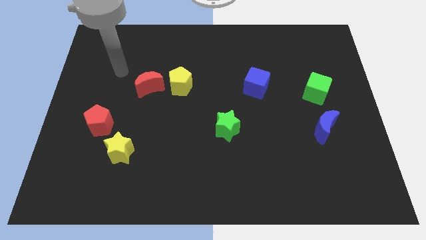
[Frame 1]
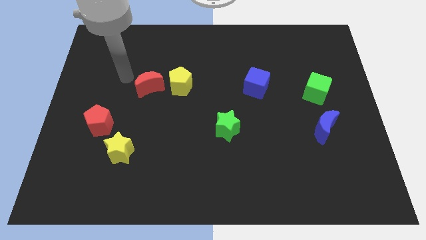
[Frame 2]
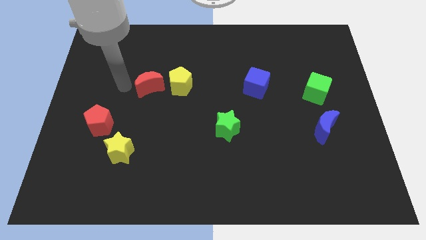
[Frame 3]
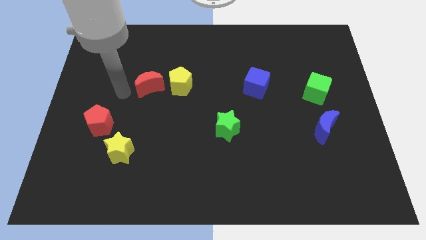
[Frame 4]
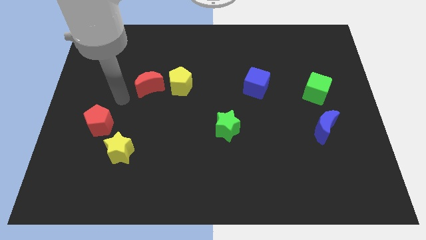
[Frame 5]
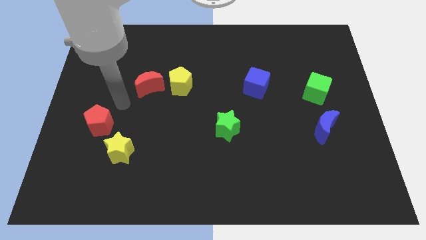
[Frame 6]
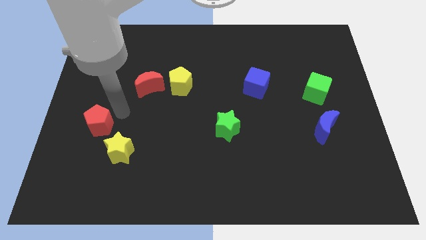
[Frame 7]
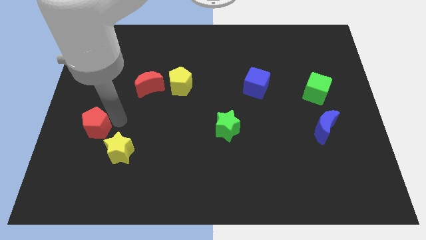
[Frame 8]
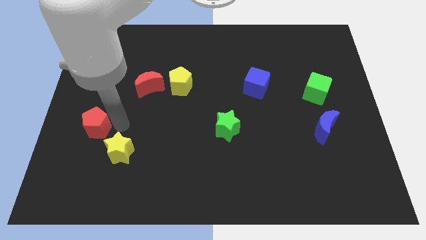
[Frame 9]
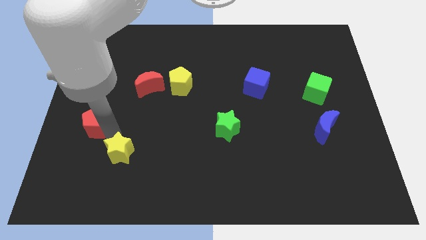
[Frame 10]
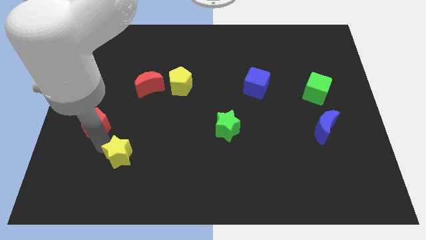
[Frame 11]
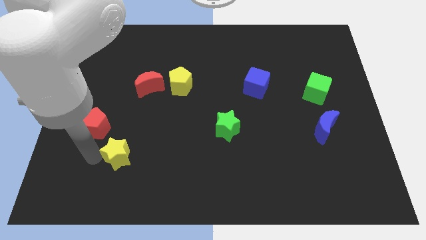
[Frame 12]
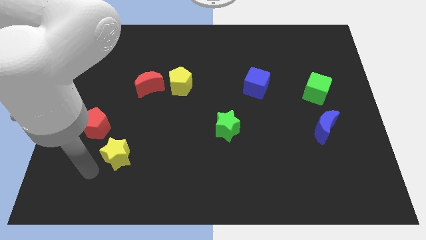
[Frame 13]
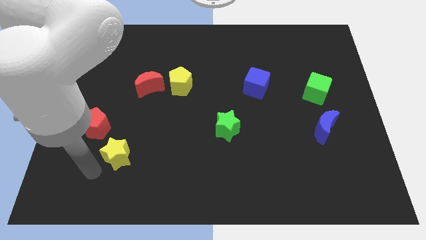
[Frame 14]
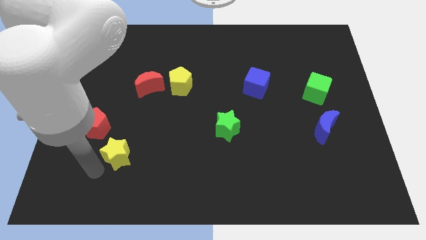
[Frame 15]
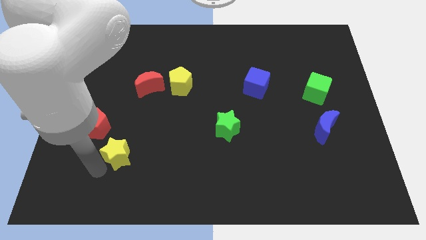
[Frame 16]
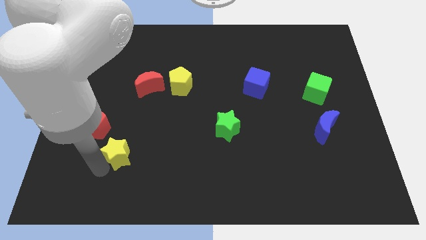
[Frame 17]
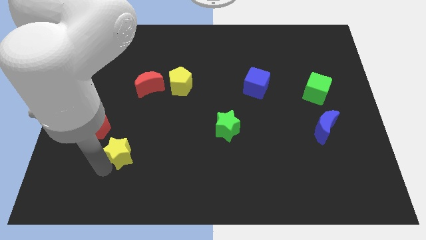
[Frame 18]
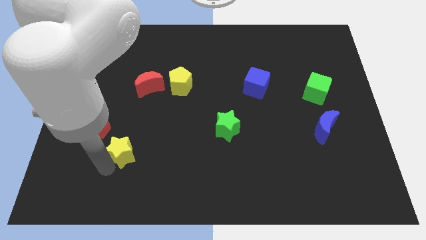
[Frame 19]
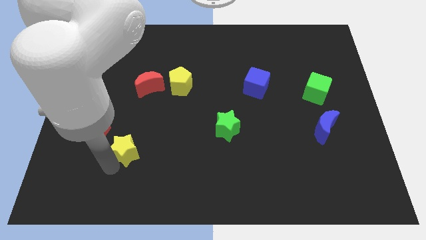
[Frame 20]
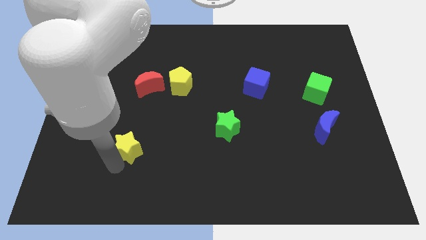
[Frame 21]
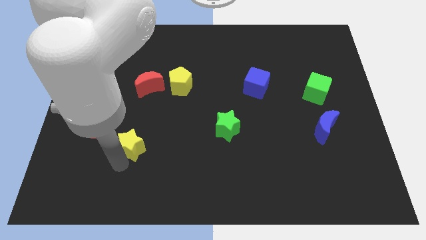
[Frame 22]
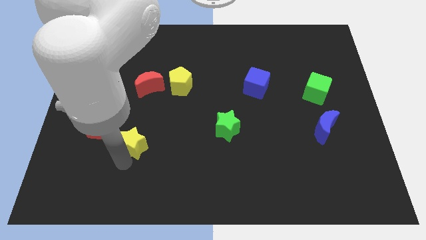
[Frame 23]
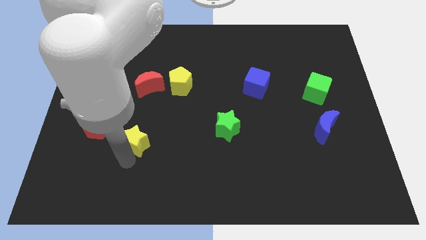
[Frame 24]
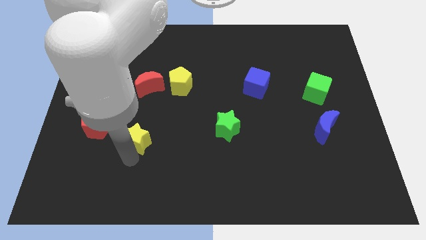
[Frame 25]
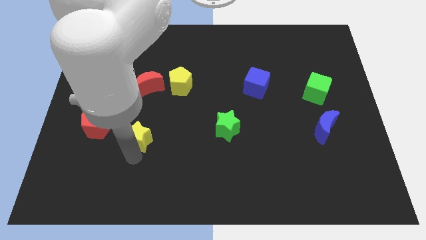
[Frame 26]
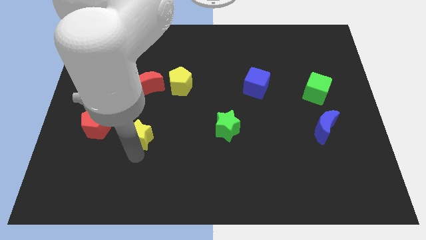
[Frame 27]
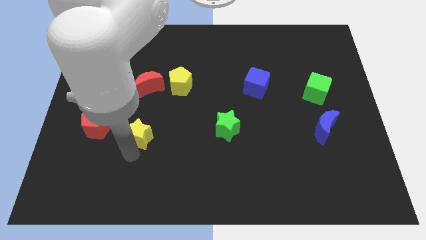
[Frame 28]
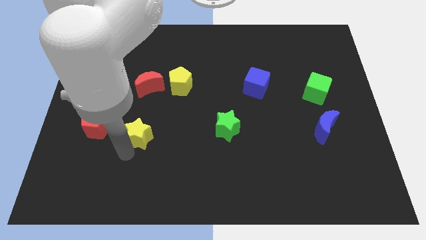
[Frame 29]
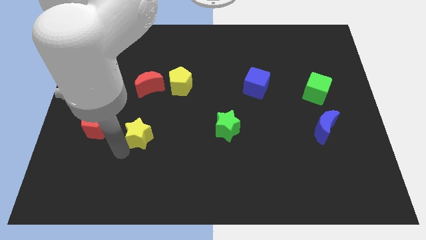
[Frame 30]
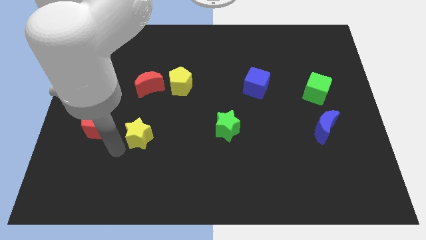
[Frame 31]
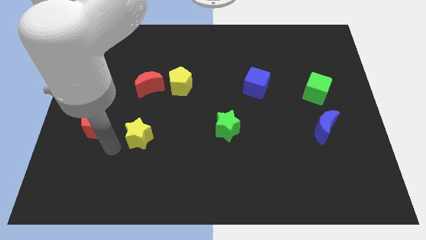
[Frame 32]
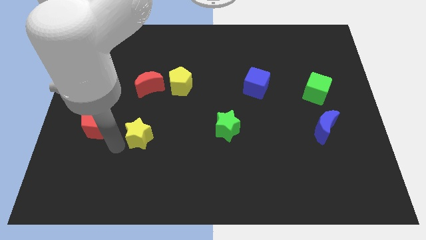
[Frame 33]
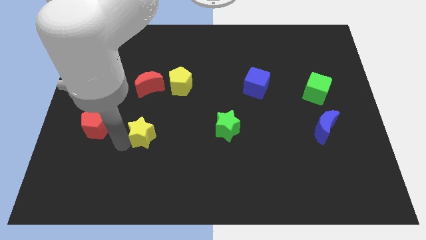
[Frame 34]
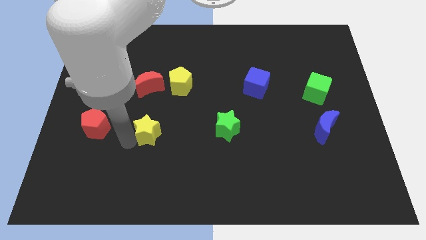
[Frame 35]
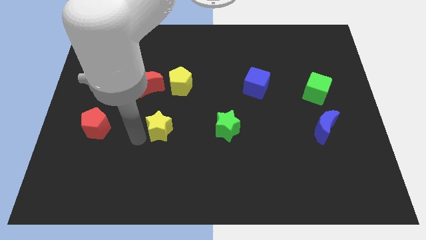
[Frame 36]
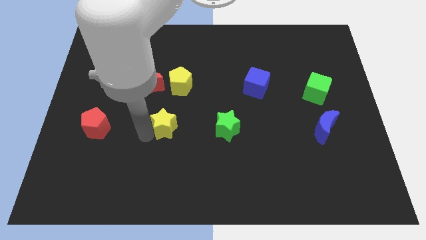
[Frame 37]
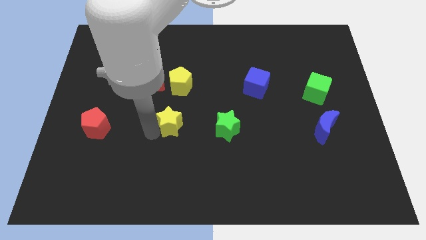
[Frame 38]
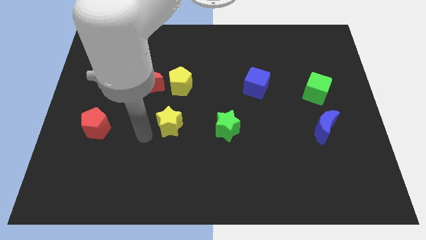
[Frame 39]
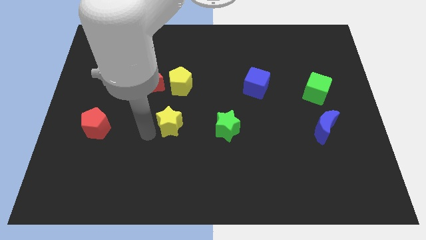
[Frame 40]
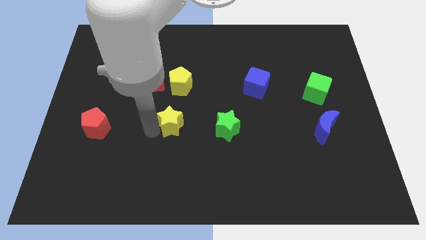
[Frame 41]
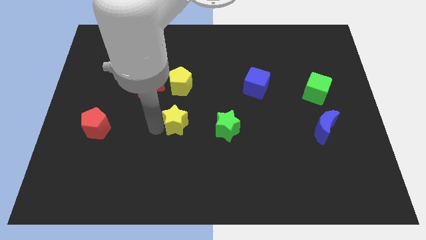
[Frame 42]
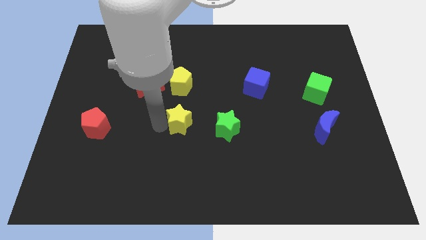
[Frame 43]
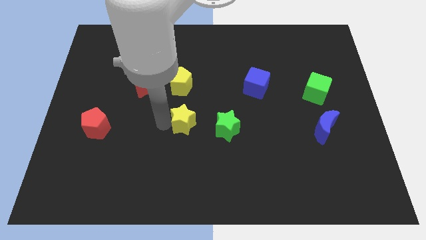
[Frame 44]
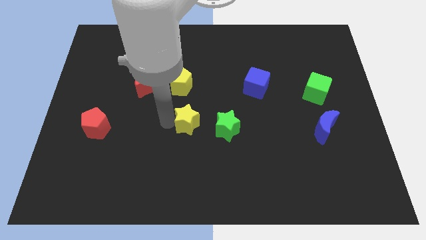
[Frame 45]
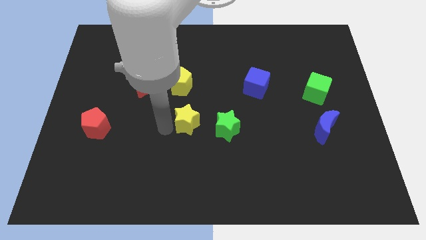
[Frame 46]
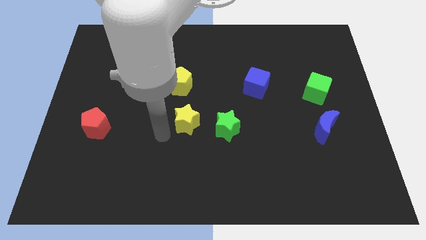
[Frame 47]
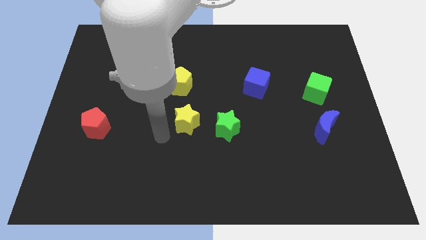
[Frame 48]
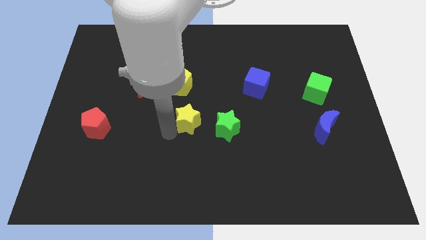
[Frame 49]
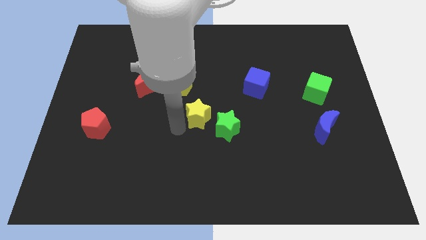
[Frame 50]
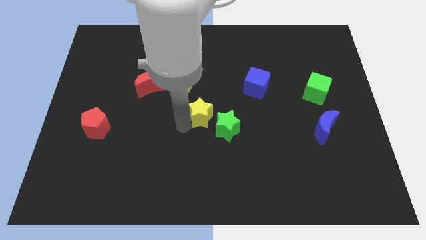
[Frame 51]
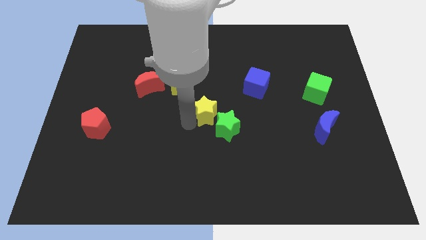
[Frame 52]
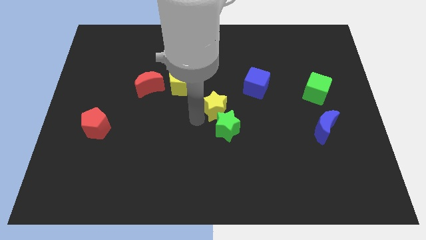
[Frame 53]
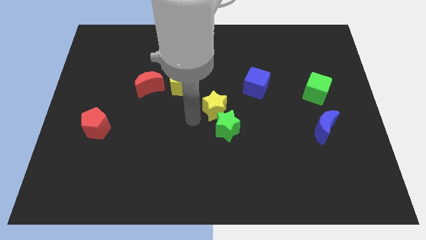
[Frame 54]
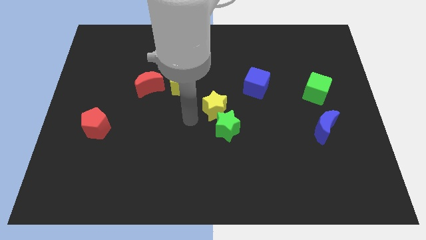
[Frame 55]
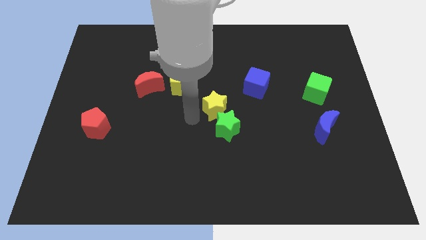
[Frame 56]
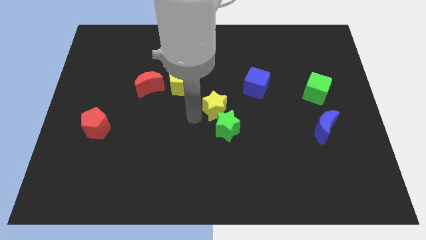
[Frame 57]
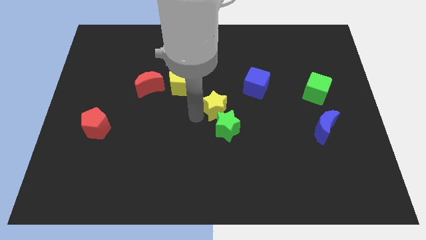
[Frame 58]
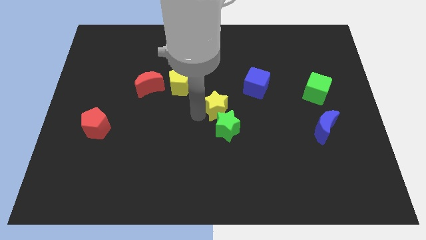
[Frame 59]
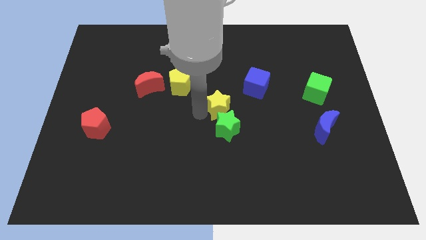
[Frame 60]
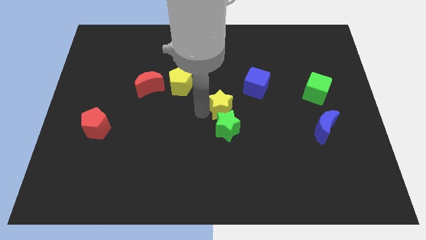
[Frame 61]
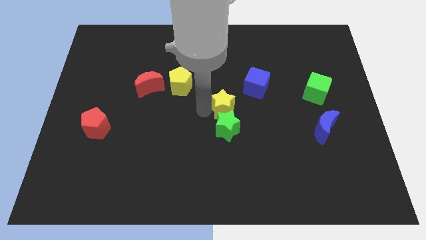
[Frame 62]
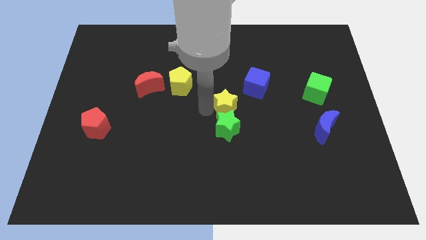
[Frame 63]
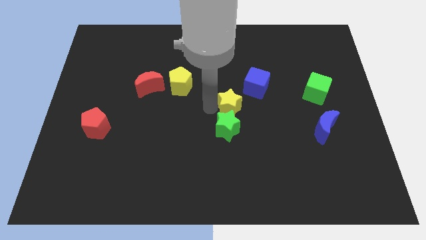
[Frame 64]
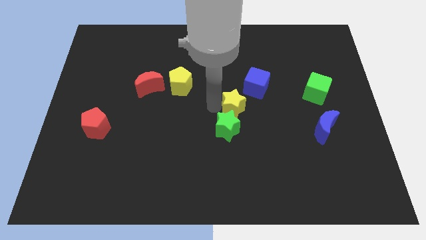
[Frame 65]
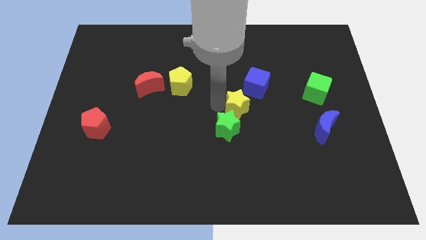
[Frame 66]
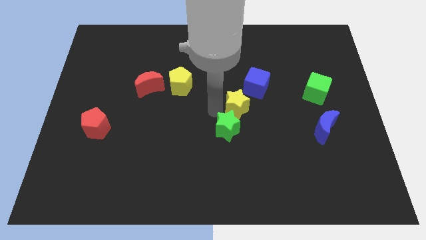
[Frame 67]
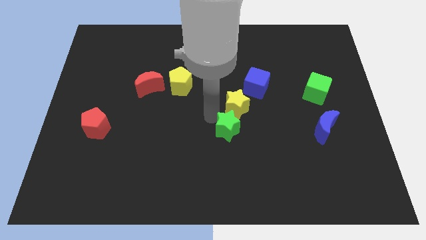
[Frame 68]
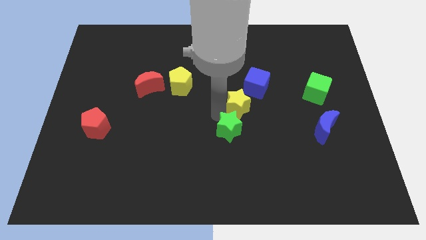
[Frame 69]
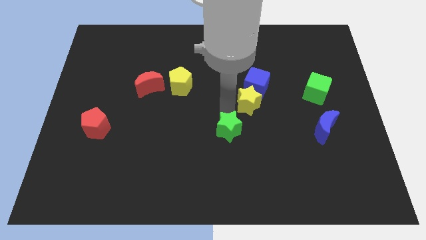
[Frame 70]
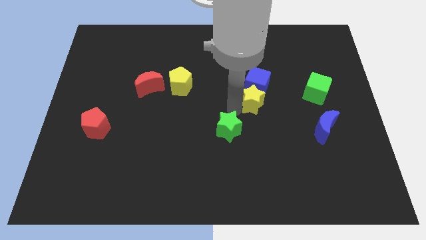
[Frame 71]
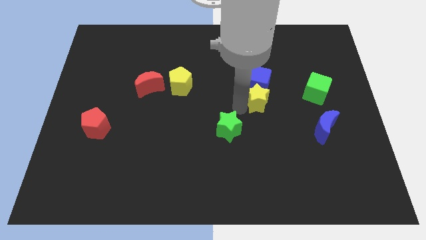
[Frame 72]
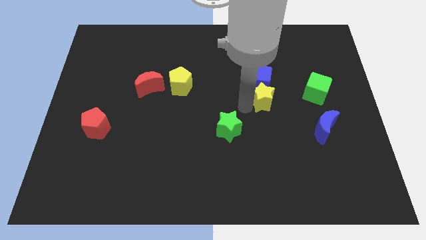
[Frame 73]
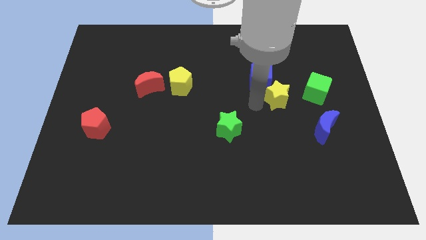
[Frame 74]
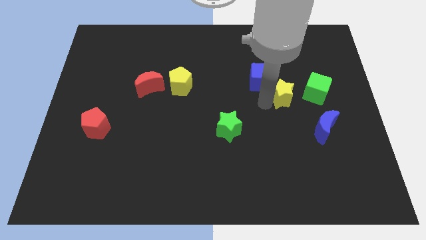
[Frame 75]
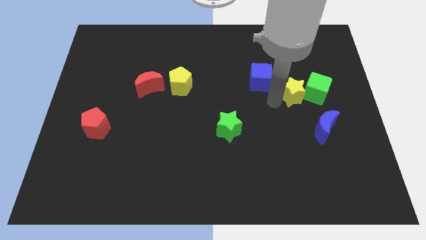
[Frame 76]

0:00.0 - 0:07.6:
move the yellow star to the right side of the blue cube
